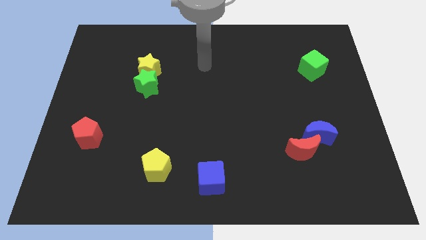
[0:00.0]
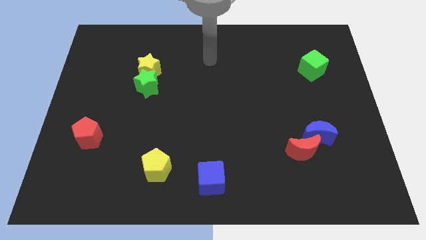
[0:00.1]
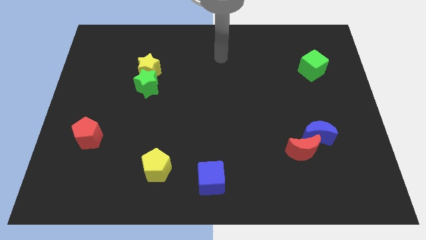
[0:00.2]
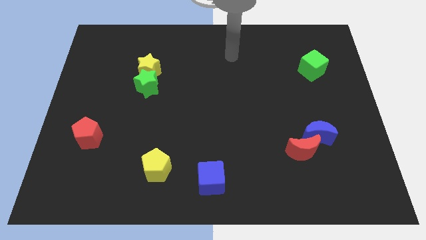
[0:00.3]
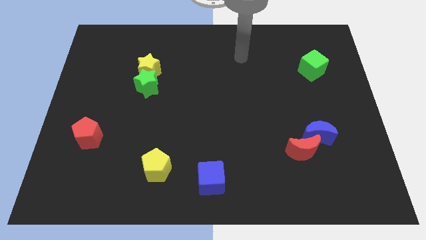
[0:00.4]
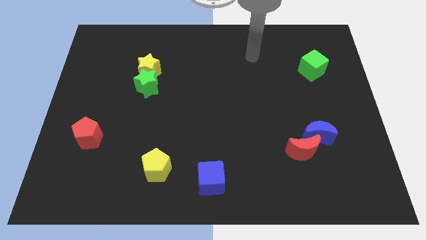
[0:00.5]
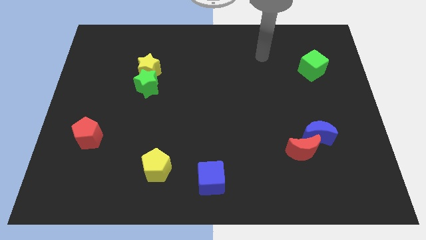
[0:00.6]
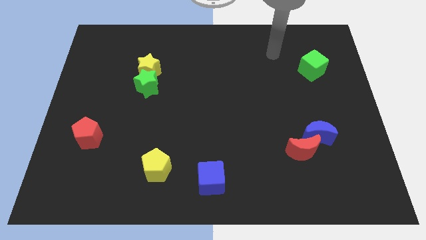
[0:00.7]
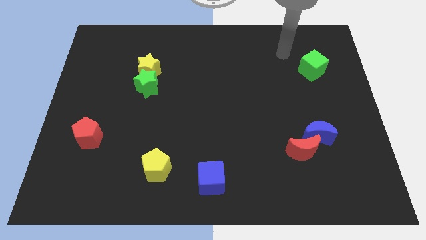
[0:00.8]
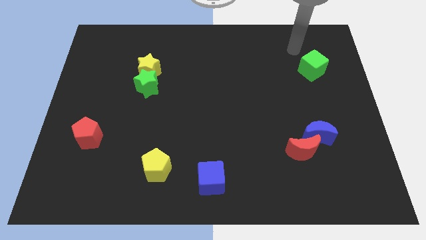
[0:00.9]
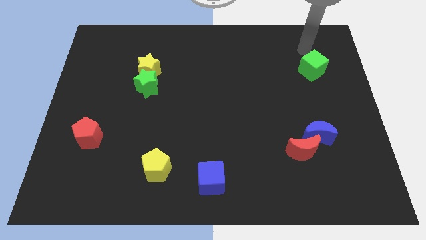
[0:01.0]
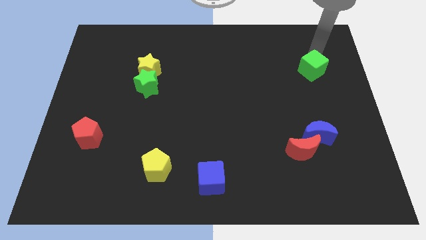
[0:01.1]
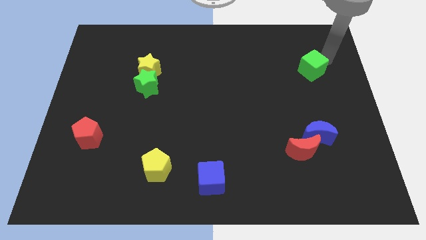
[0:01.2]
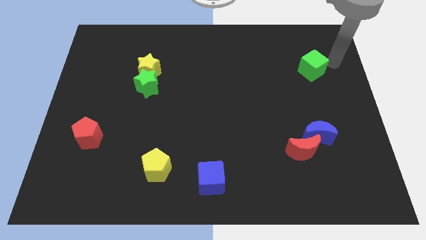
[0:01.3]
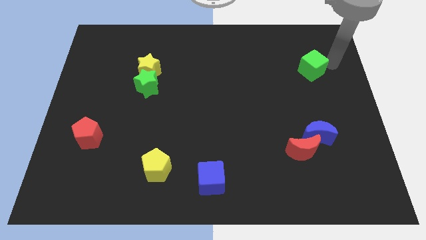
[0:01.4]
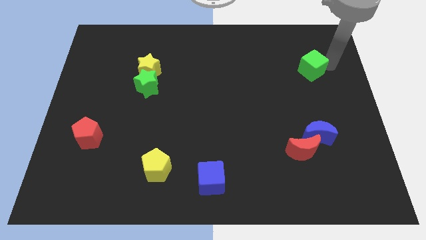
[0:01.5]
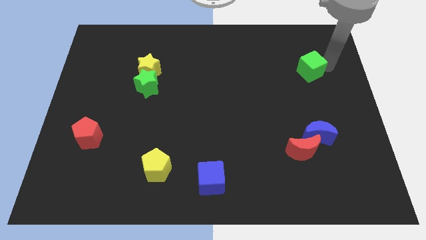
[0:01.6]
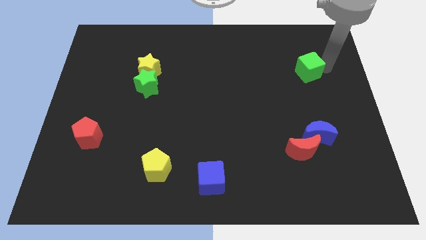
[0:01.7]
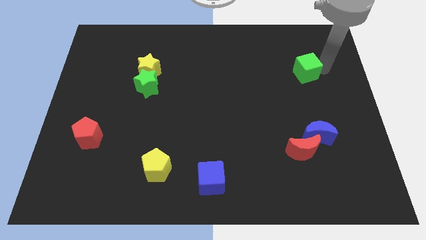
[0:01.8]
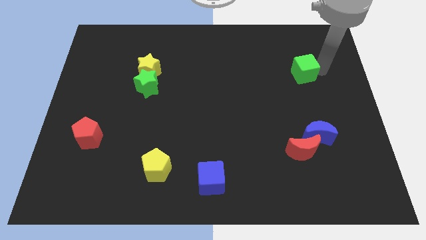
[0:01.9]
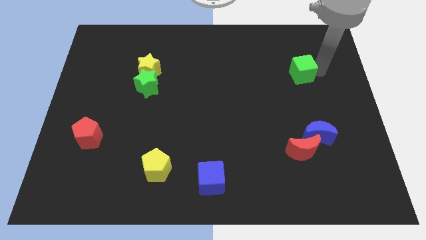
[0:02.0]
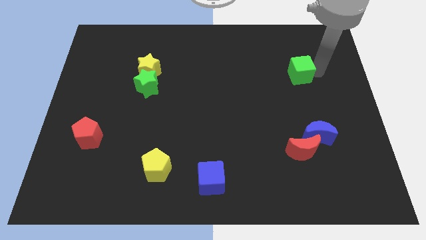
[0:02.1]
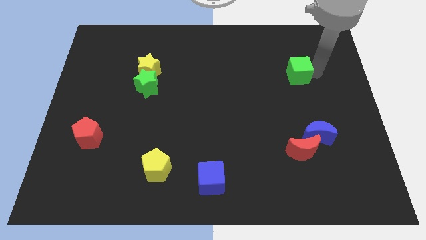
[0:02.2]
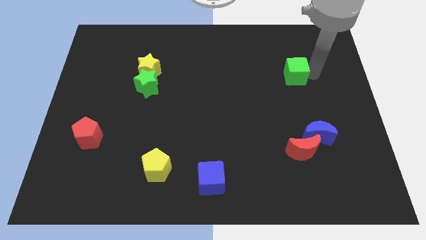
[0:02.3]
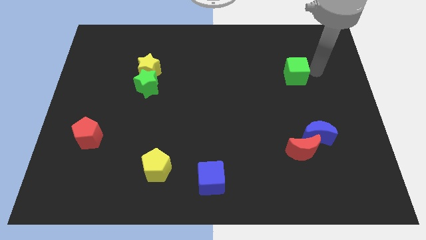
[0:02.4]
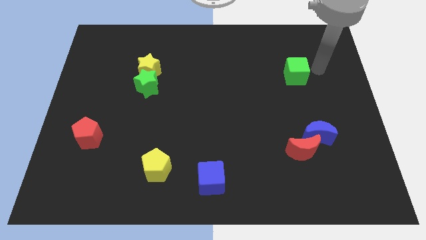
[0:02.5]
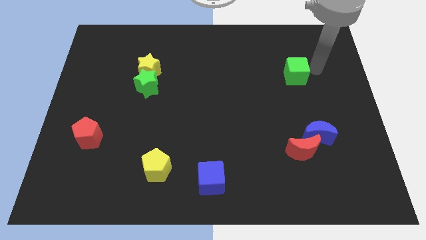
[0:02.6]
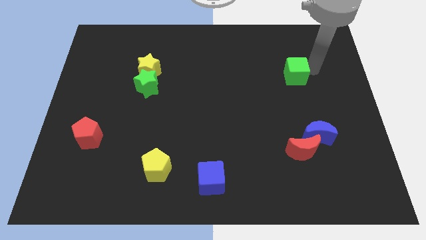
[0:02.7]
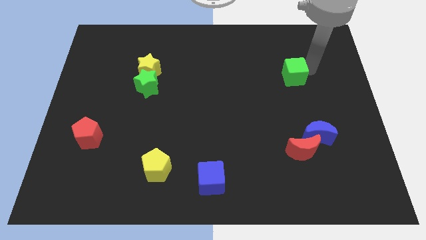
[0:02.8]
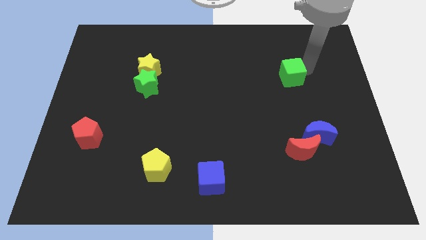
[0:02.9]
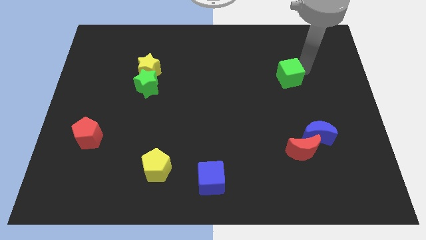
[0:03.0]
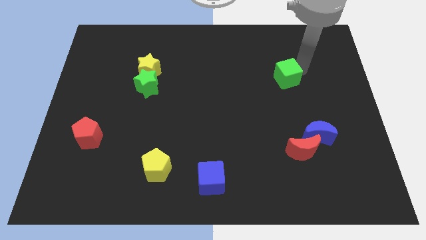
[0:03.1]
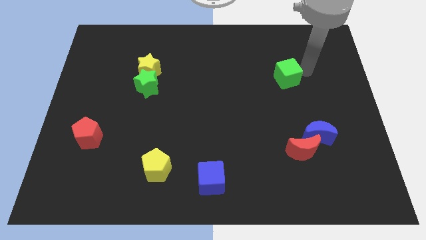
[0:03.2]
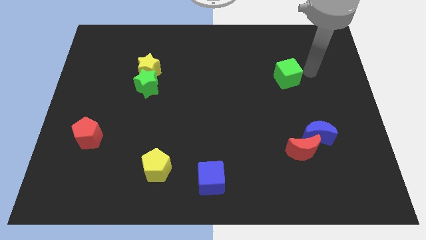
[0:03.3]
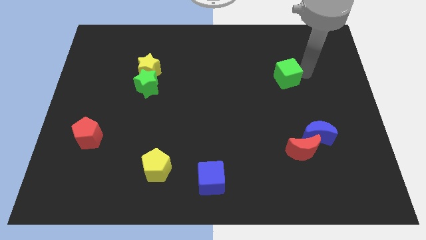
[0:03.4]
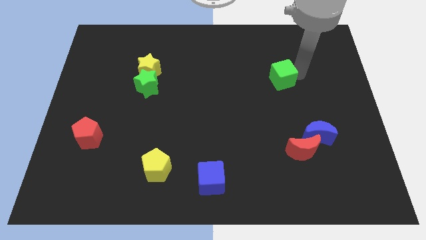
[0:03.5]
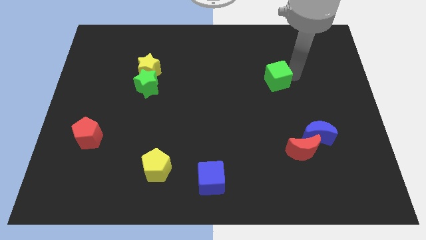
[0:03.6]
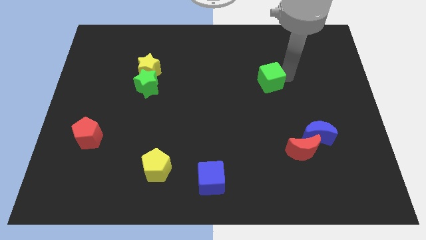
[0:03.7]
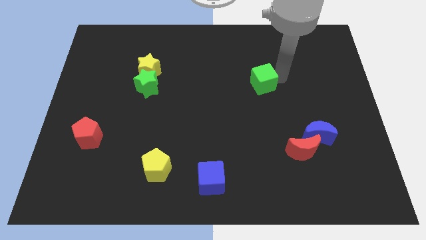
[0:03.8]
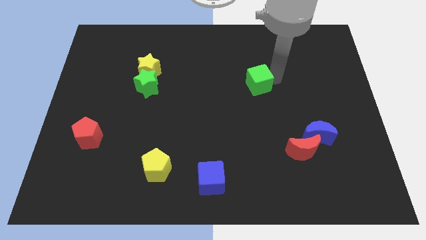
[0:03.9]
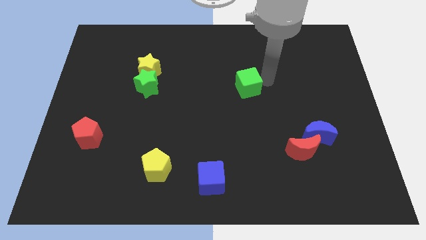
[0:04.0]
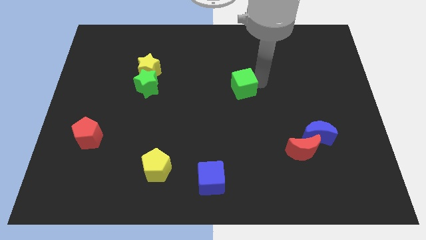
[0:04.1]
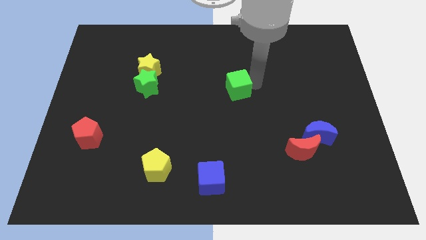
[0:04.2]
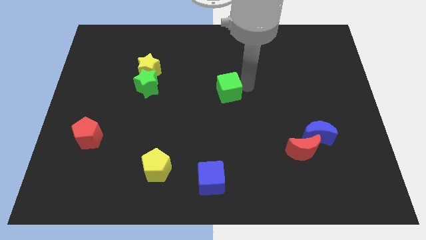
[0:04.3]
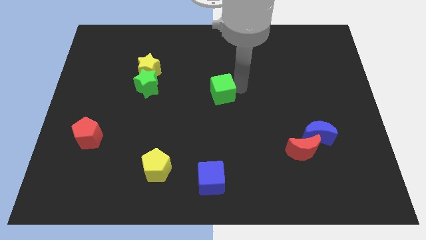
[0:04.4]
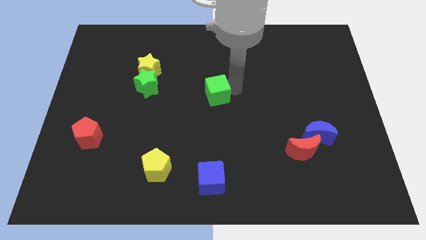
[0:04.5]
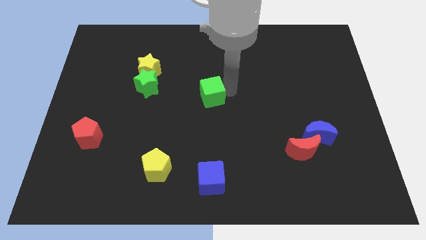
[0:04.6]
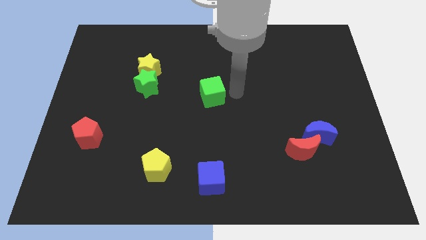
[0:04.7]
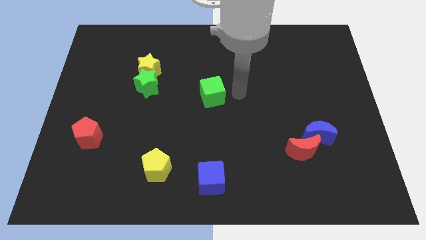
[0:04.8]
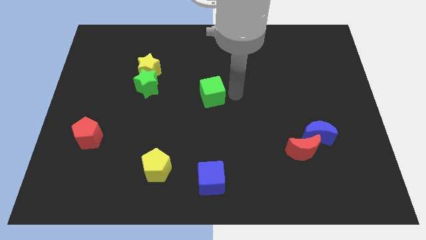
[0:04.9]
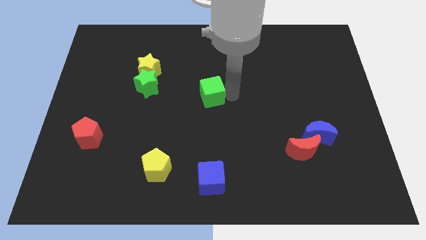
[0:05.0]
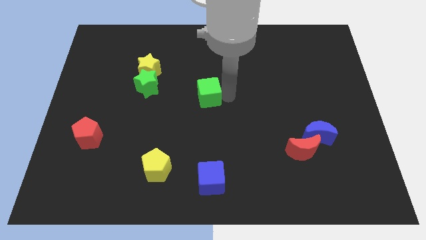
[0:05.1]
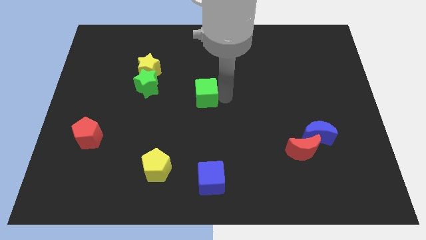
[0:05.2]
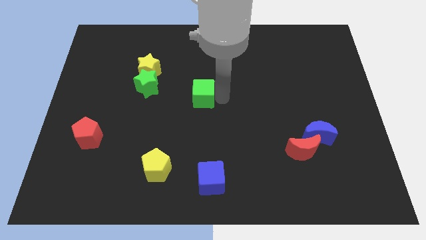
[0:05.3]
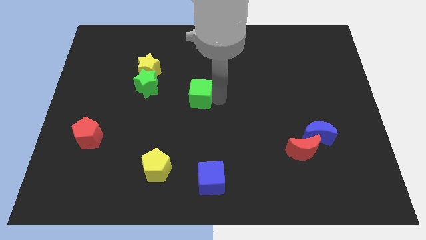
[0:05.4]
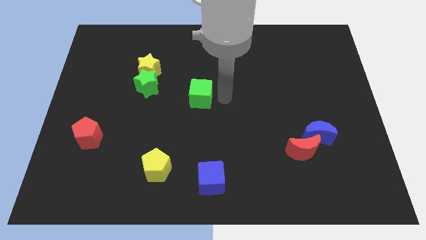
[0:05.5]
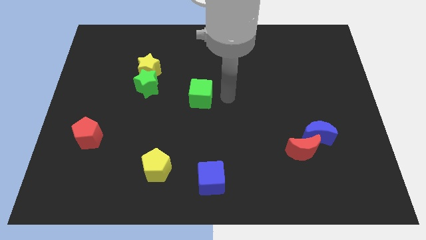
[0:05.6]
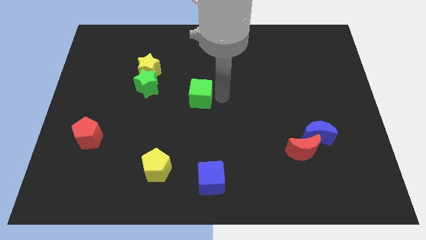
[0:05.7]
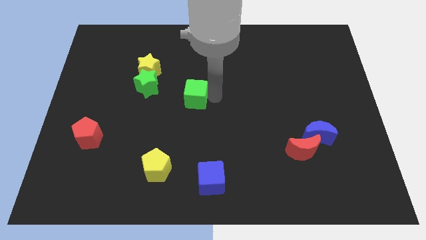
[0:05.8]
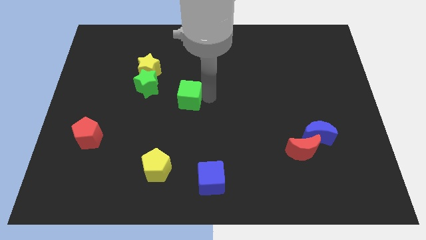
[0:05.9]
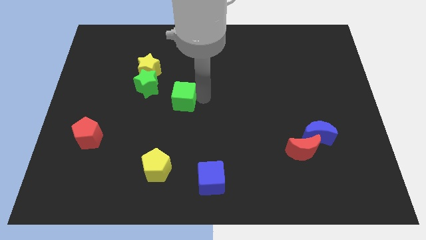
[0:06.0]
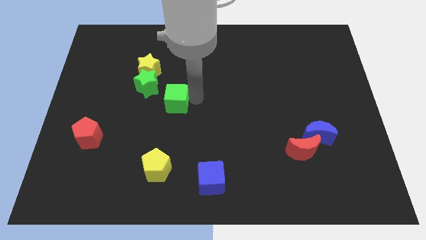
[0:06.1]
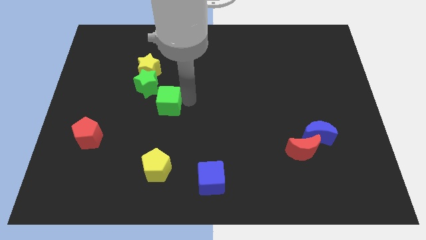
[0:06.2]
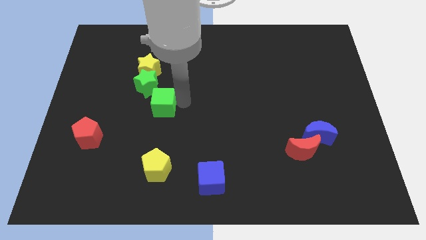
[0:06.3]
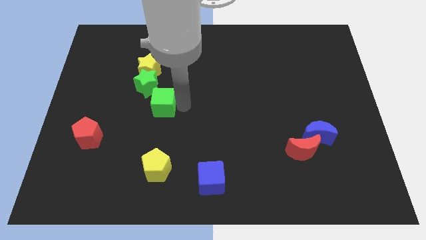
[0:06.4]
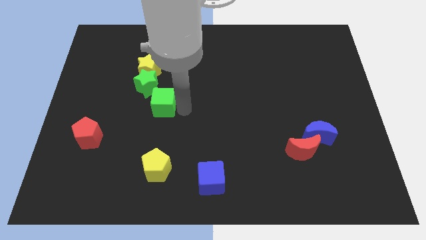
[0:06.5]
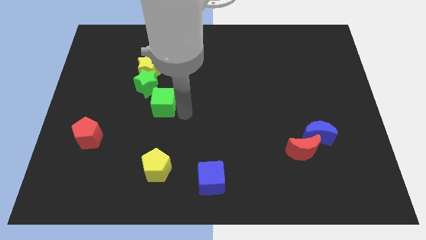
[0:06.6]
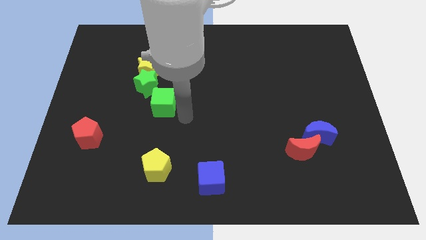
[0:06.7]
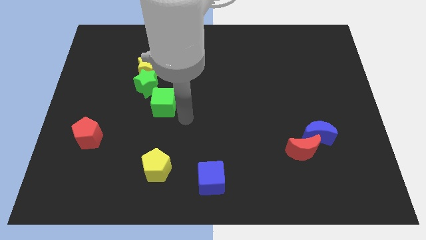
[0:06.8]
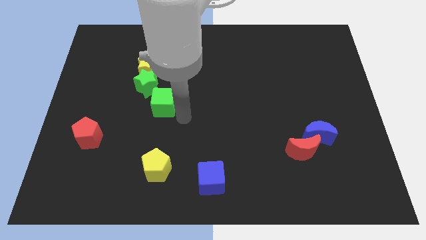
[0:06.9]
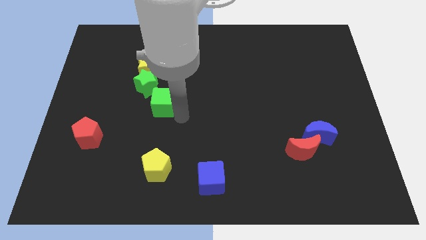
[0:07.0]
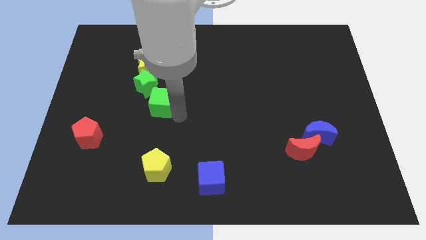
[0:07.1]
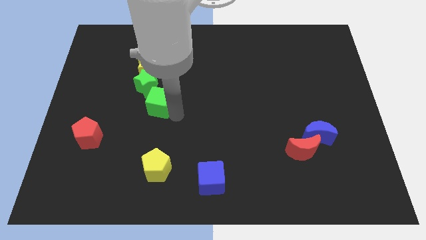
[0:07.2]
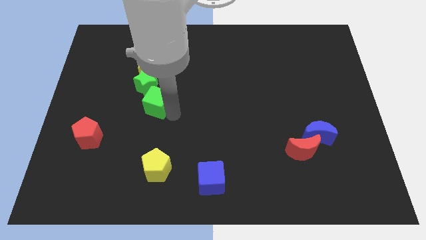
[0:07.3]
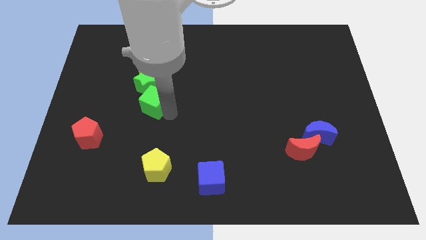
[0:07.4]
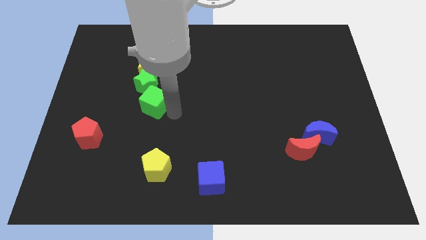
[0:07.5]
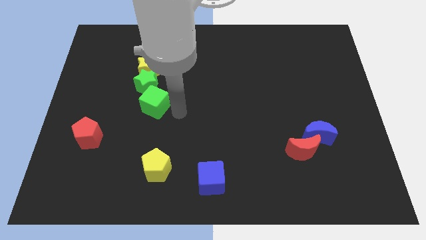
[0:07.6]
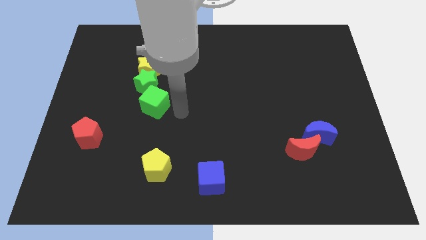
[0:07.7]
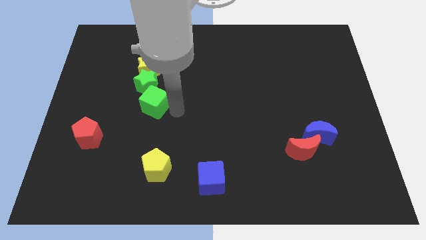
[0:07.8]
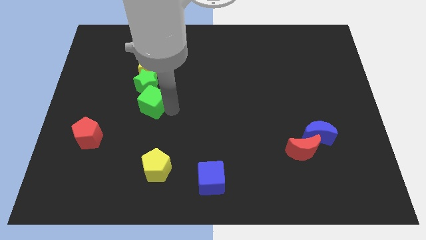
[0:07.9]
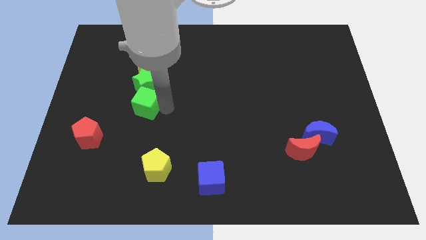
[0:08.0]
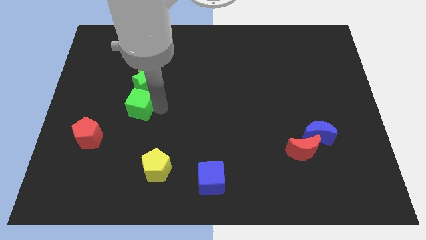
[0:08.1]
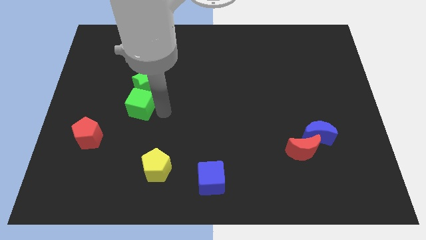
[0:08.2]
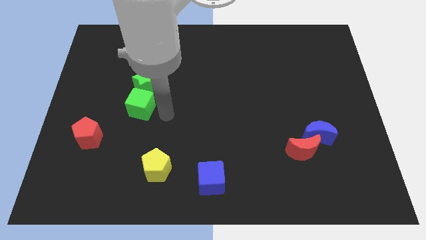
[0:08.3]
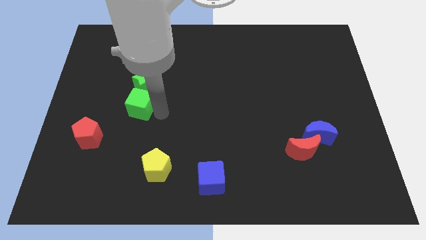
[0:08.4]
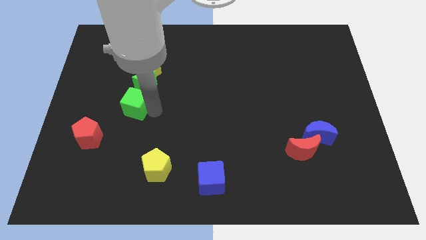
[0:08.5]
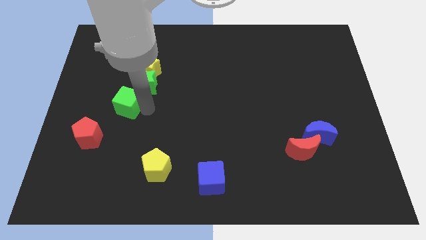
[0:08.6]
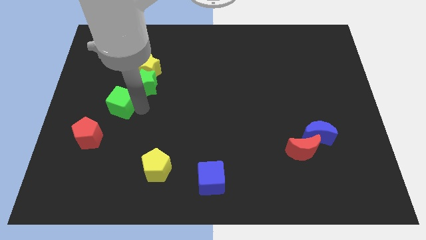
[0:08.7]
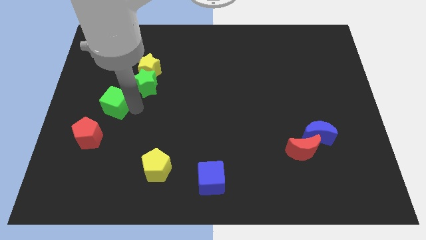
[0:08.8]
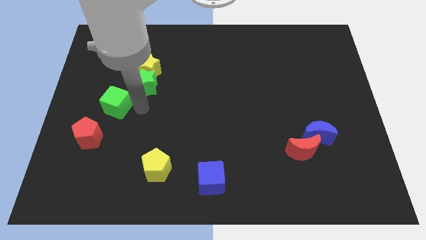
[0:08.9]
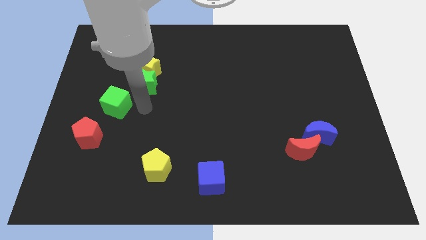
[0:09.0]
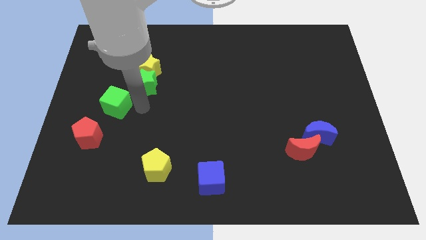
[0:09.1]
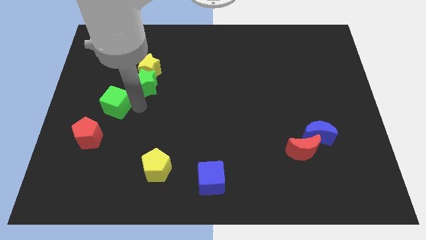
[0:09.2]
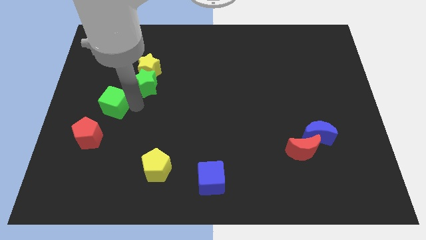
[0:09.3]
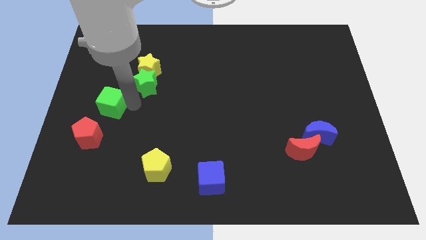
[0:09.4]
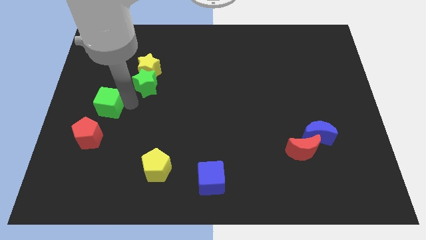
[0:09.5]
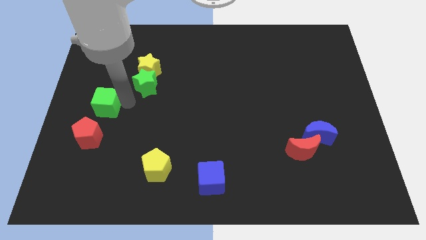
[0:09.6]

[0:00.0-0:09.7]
put the green cube to the center left
